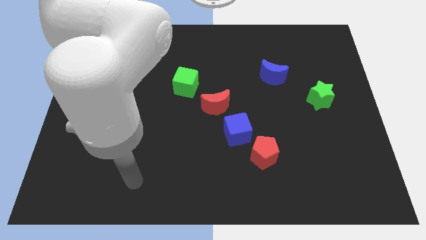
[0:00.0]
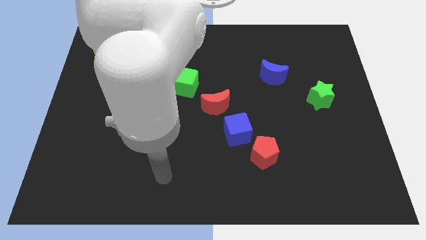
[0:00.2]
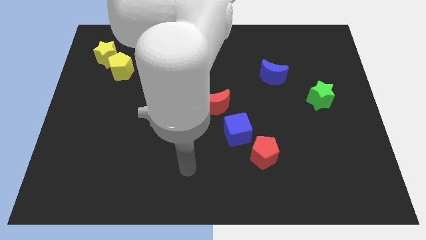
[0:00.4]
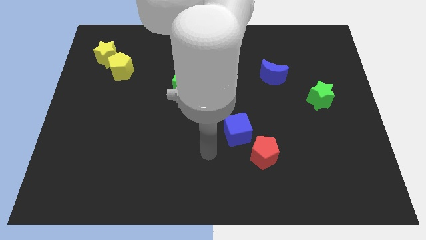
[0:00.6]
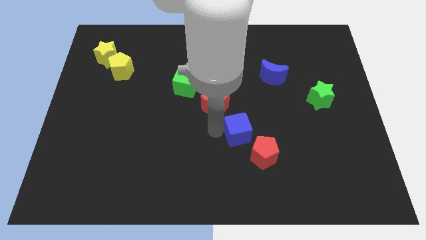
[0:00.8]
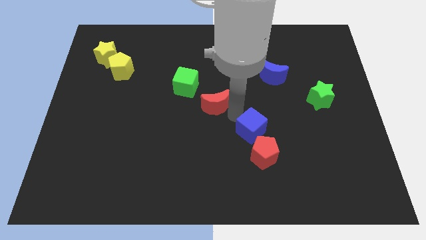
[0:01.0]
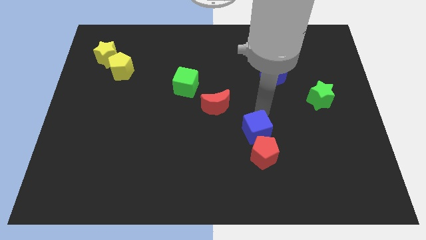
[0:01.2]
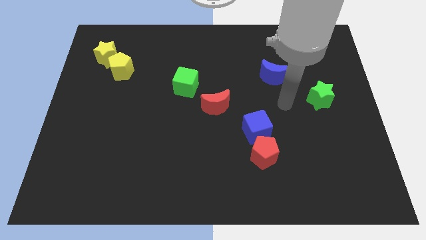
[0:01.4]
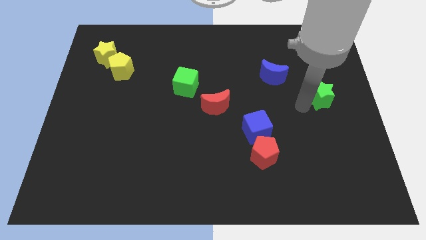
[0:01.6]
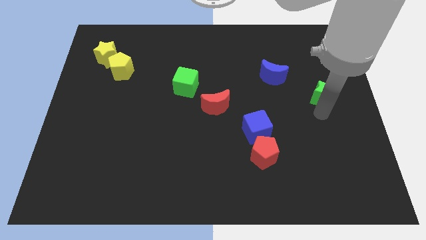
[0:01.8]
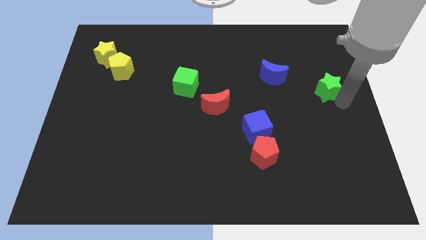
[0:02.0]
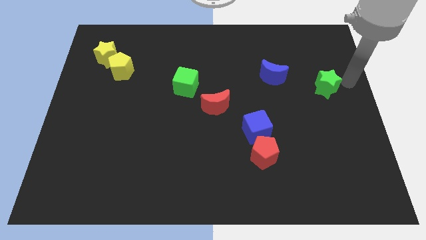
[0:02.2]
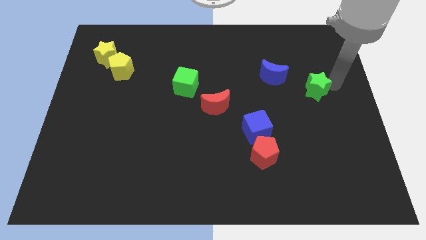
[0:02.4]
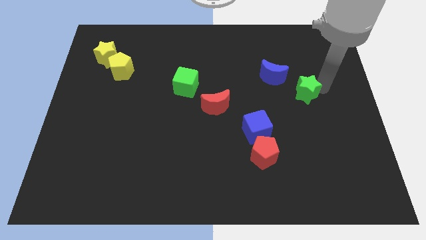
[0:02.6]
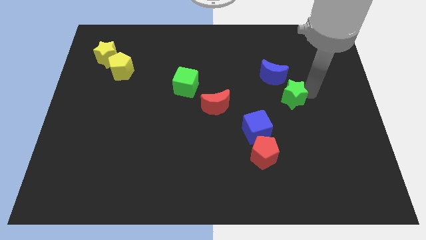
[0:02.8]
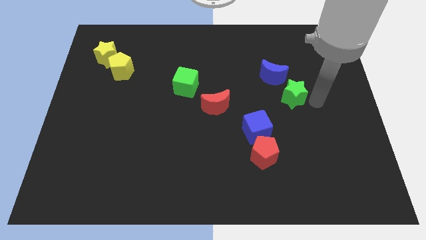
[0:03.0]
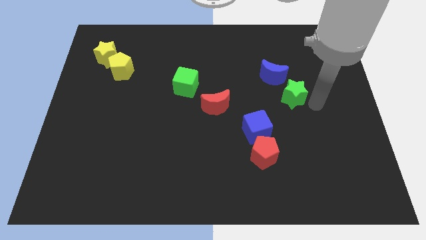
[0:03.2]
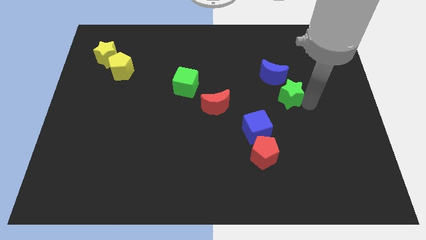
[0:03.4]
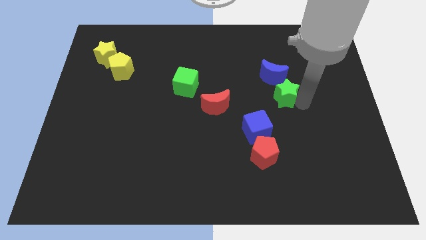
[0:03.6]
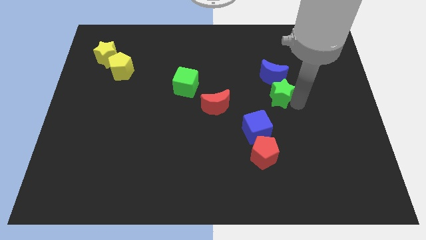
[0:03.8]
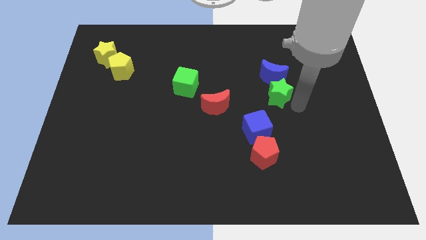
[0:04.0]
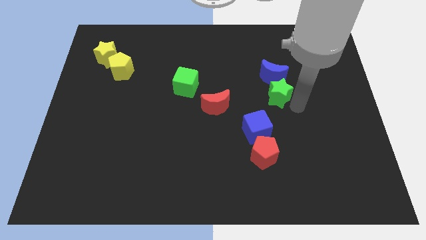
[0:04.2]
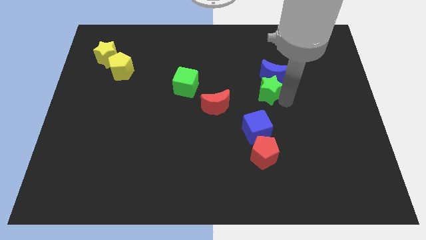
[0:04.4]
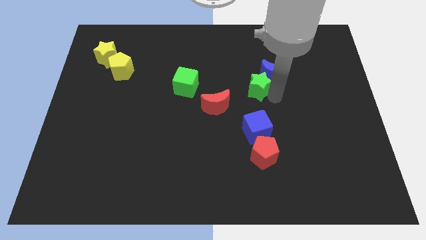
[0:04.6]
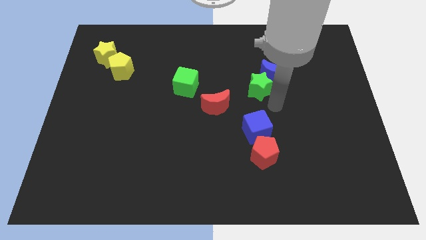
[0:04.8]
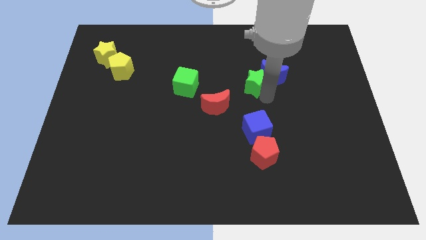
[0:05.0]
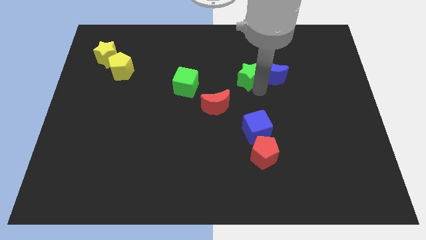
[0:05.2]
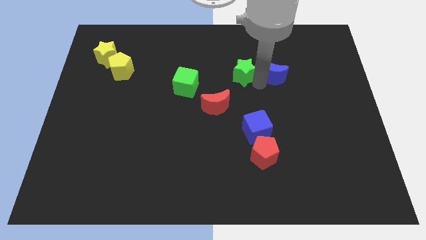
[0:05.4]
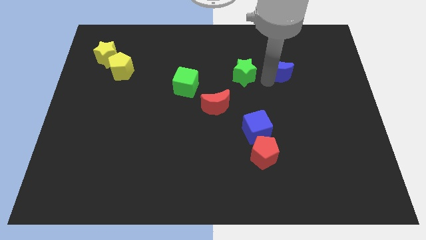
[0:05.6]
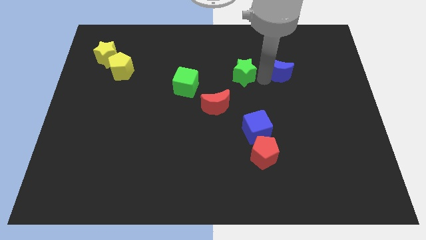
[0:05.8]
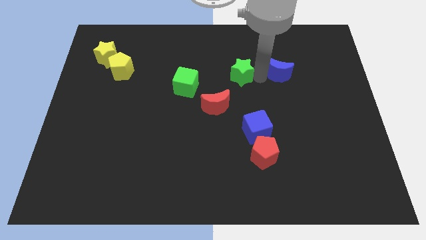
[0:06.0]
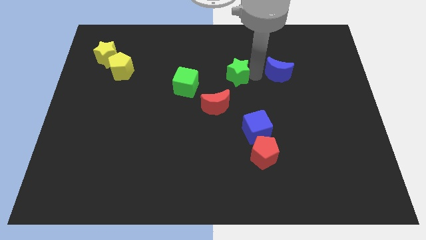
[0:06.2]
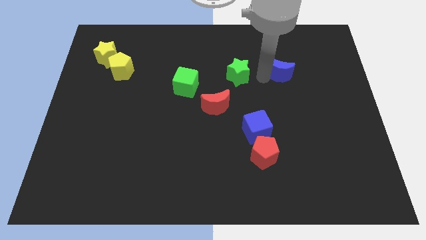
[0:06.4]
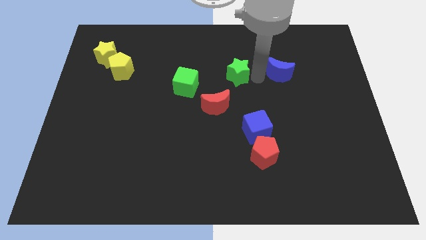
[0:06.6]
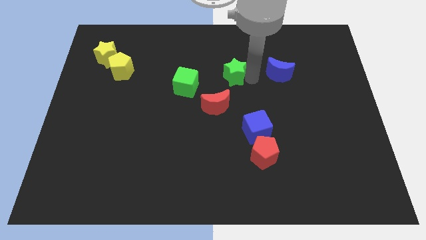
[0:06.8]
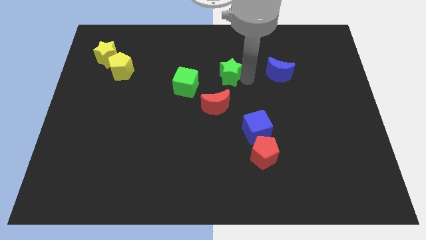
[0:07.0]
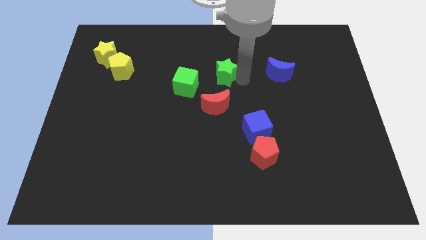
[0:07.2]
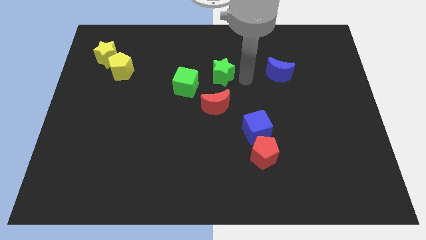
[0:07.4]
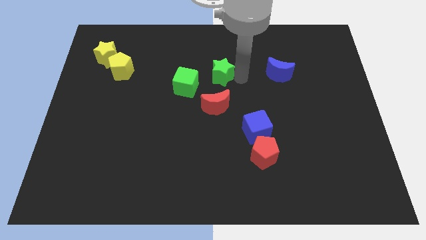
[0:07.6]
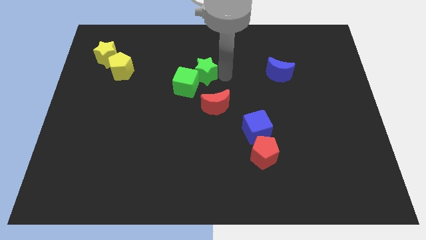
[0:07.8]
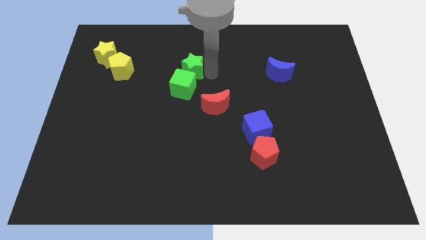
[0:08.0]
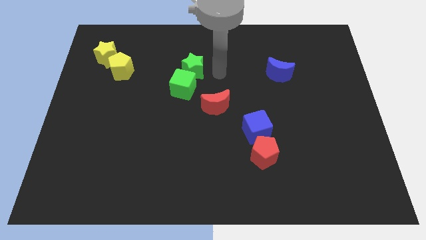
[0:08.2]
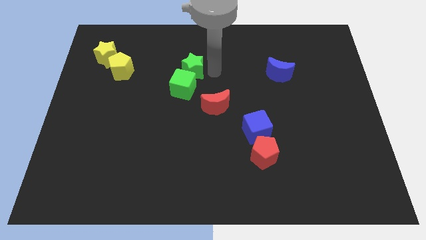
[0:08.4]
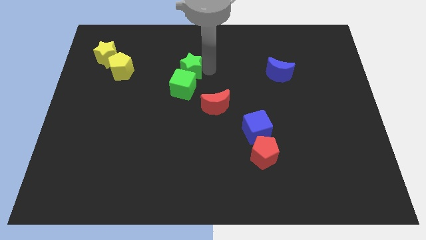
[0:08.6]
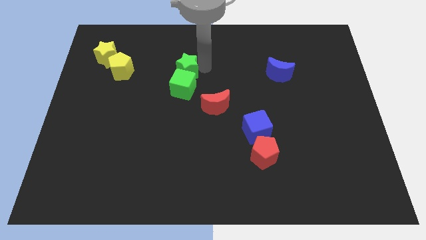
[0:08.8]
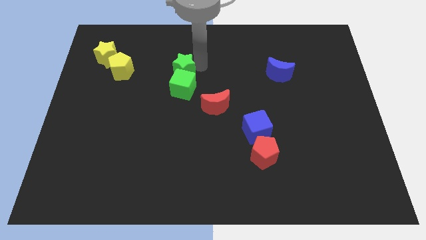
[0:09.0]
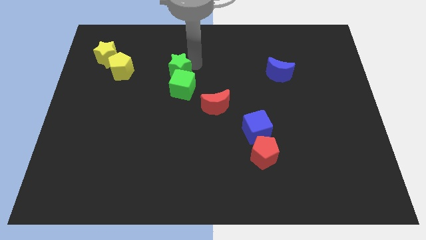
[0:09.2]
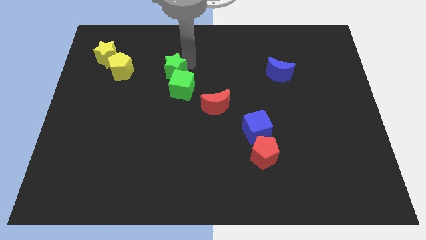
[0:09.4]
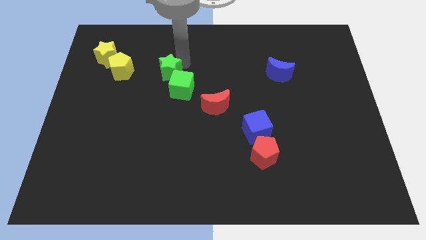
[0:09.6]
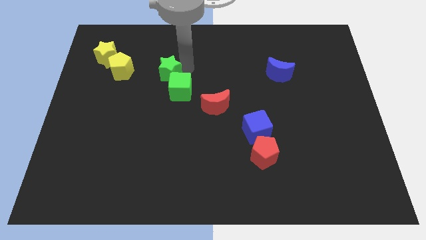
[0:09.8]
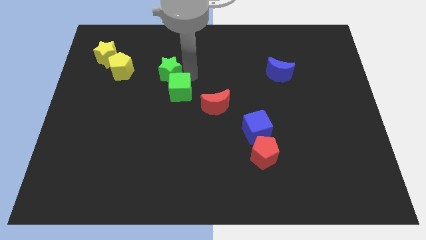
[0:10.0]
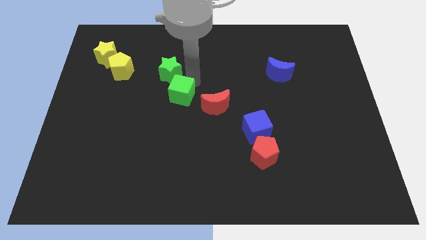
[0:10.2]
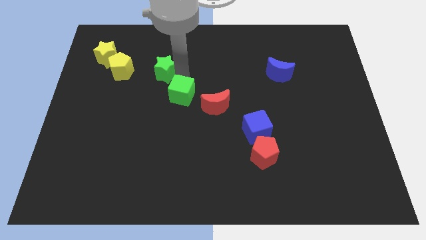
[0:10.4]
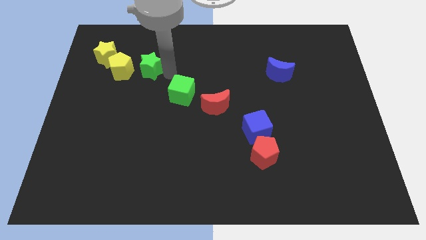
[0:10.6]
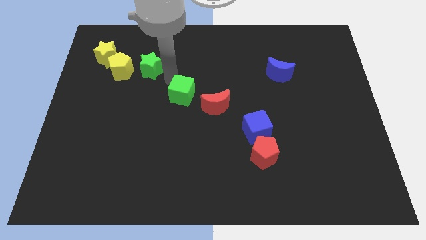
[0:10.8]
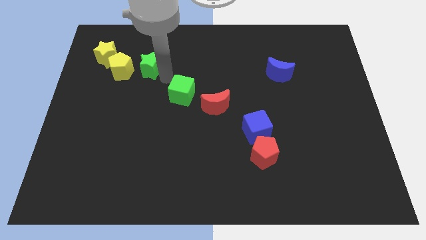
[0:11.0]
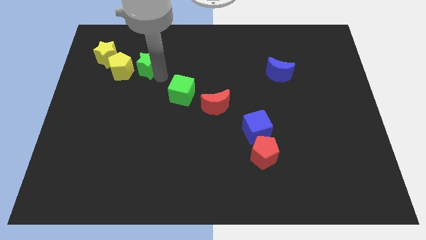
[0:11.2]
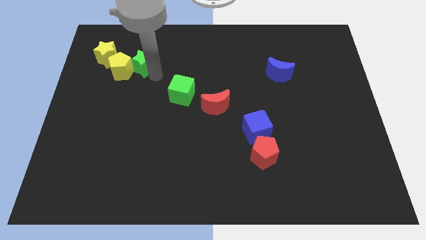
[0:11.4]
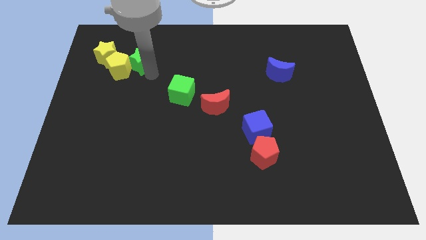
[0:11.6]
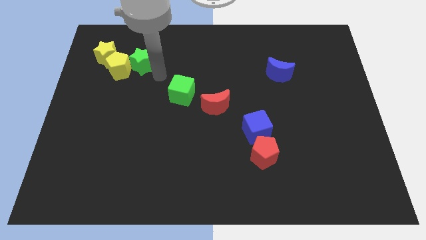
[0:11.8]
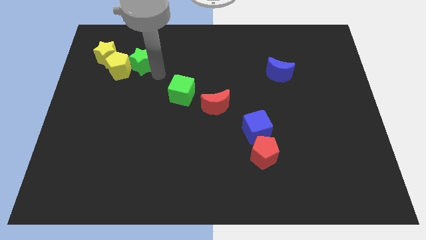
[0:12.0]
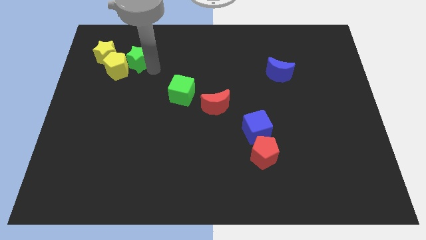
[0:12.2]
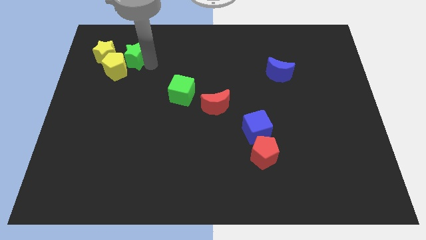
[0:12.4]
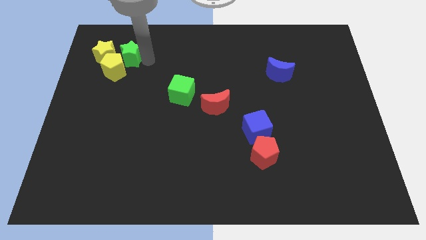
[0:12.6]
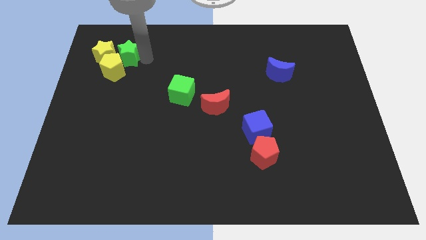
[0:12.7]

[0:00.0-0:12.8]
slide the green star to the yellow star

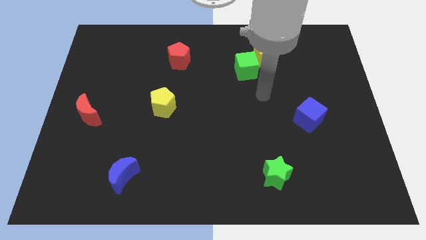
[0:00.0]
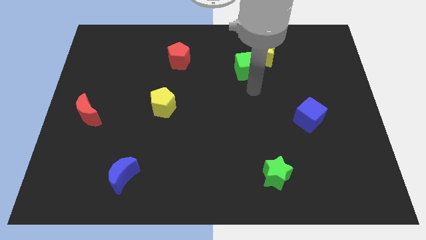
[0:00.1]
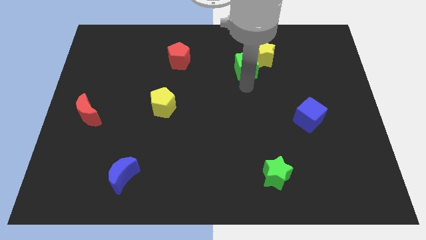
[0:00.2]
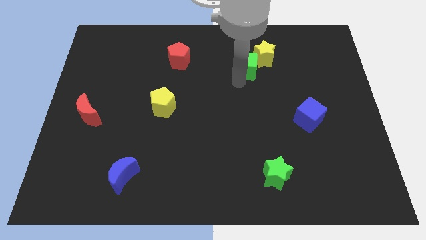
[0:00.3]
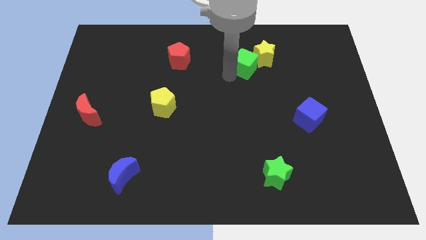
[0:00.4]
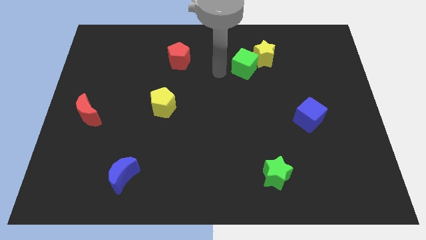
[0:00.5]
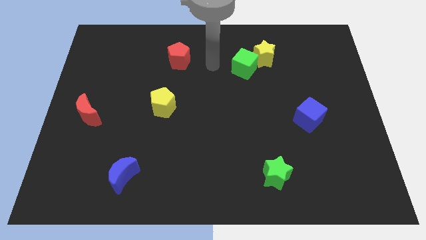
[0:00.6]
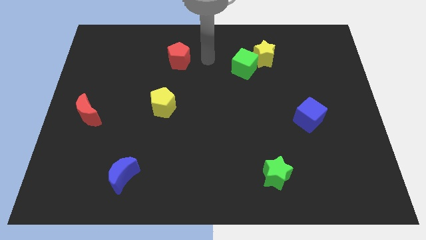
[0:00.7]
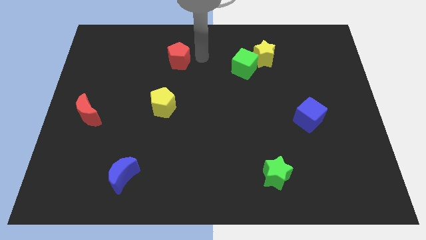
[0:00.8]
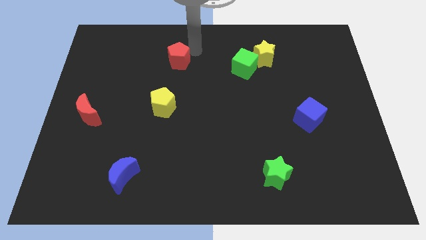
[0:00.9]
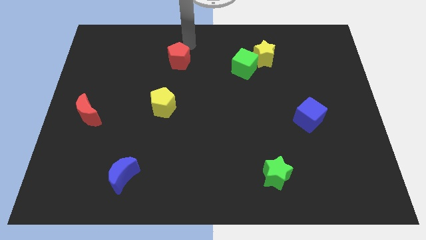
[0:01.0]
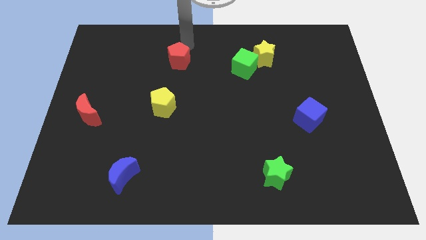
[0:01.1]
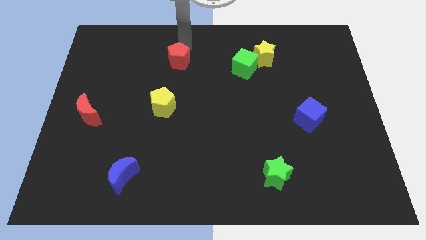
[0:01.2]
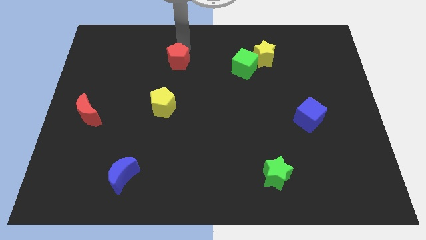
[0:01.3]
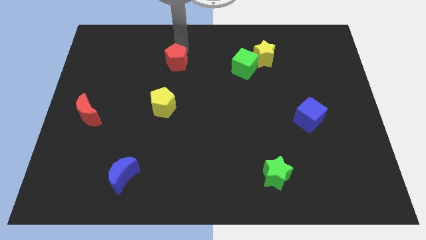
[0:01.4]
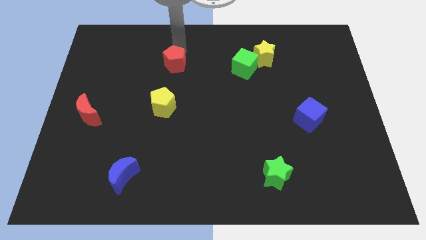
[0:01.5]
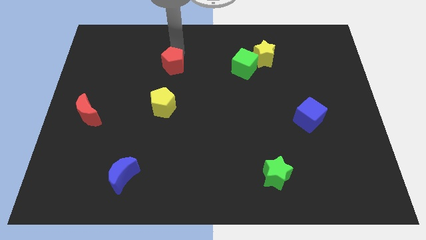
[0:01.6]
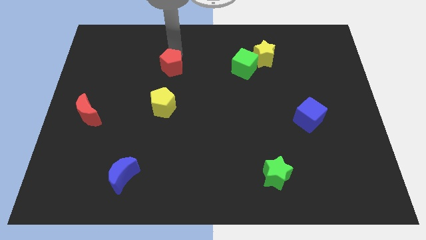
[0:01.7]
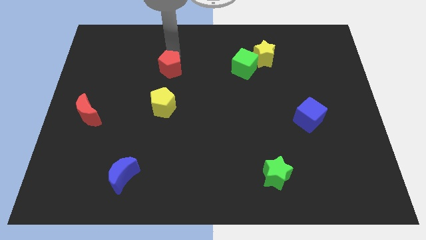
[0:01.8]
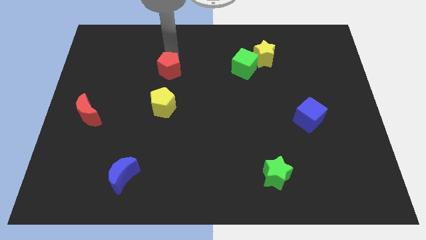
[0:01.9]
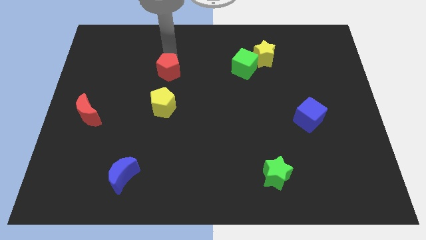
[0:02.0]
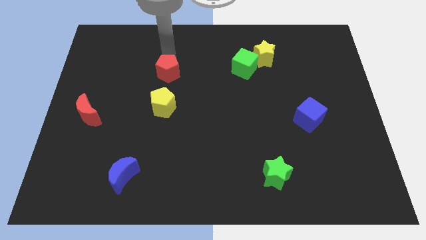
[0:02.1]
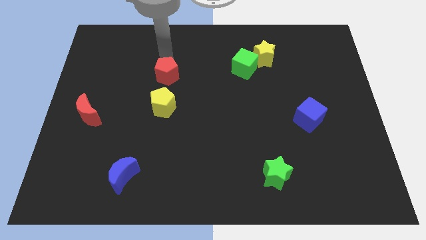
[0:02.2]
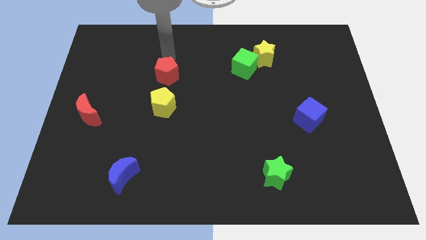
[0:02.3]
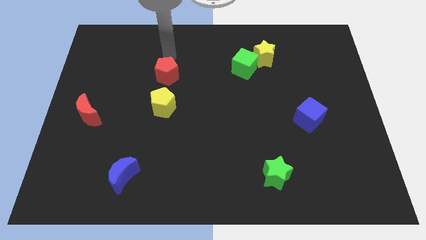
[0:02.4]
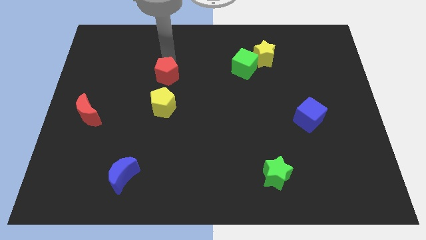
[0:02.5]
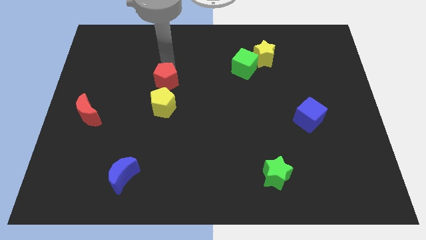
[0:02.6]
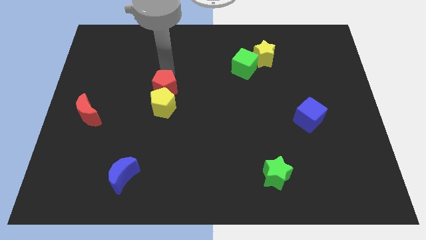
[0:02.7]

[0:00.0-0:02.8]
push the red pentagon to the yellow pentagon
